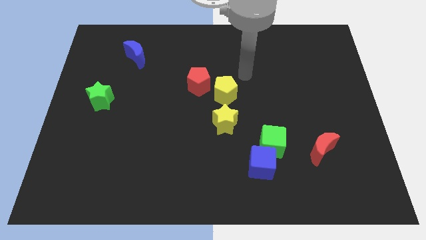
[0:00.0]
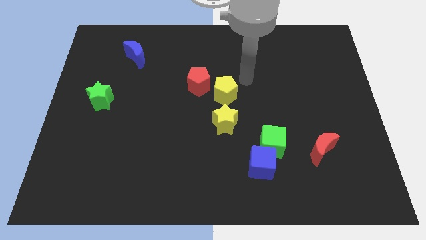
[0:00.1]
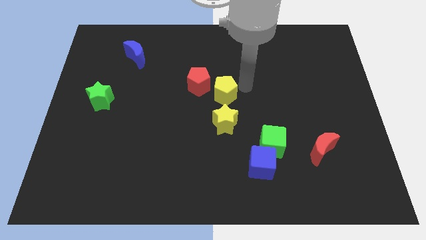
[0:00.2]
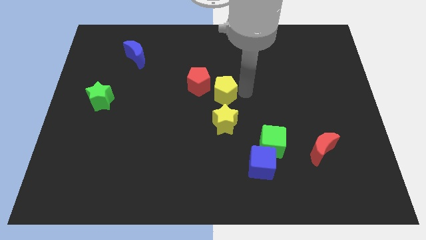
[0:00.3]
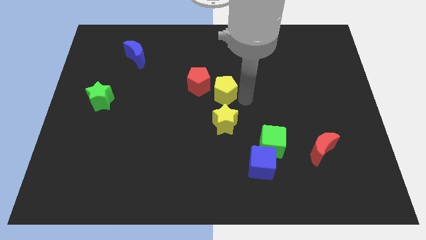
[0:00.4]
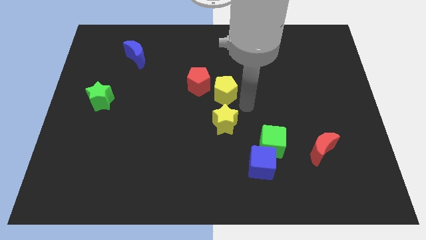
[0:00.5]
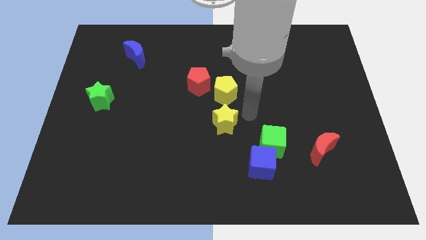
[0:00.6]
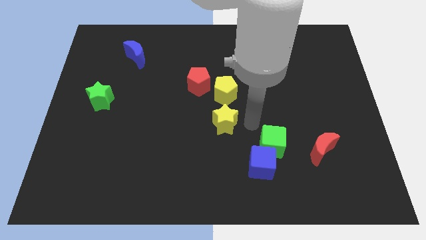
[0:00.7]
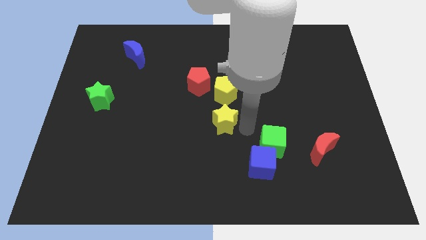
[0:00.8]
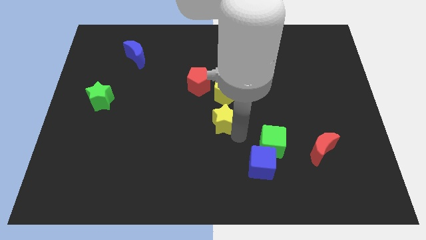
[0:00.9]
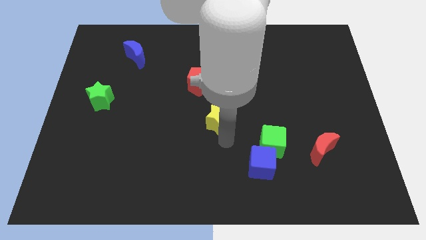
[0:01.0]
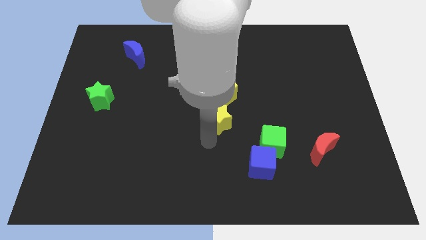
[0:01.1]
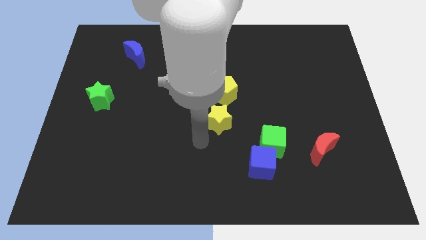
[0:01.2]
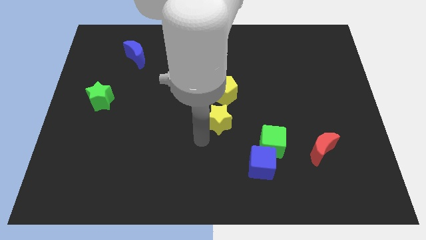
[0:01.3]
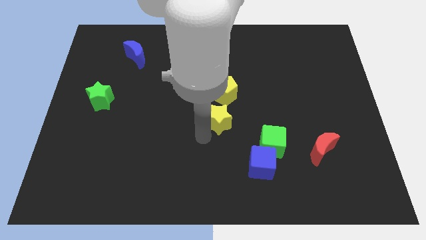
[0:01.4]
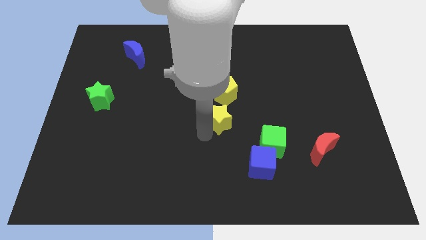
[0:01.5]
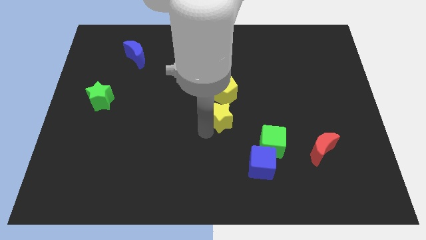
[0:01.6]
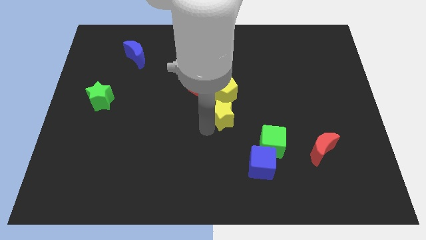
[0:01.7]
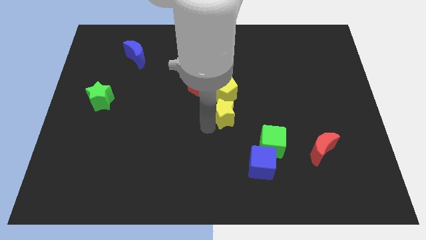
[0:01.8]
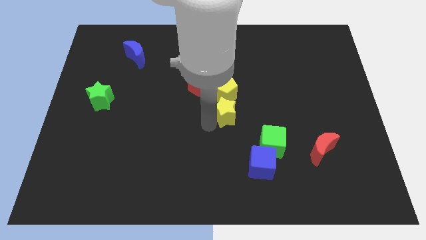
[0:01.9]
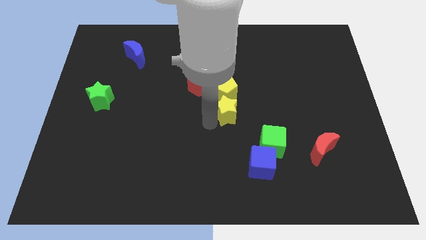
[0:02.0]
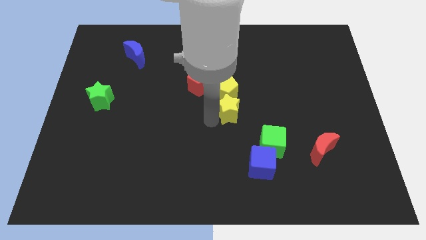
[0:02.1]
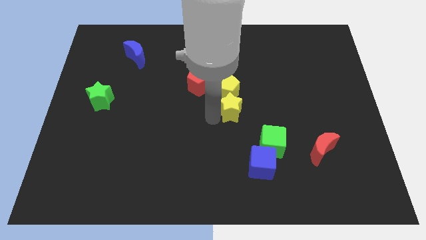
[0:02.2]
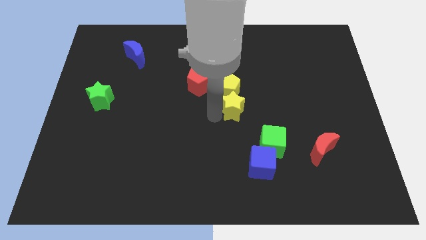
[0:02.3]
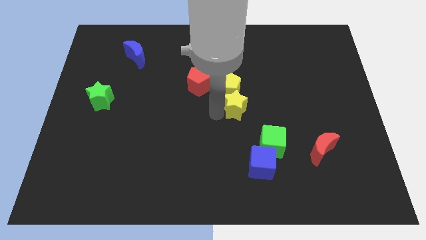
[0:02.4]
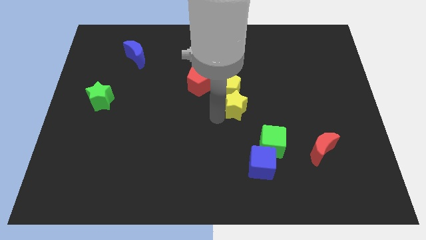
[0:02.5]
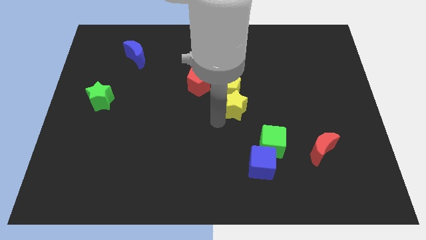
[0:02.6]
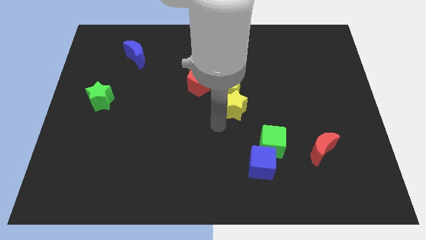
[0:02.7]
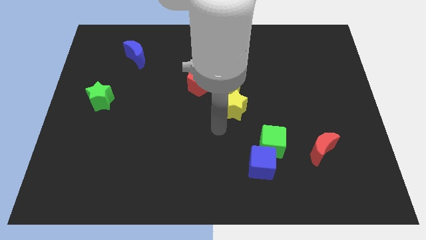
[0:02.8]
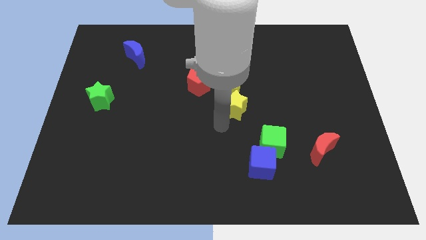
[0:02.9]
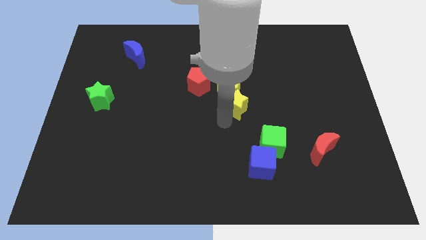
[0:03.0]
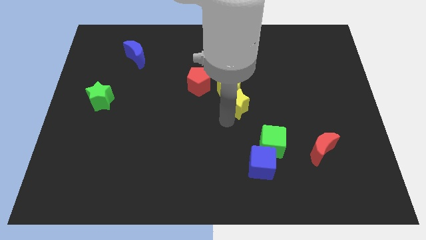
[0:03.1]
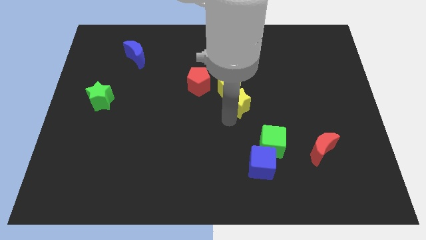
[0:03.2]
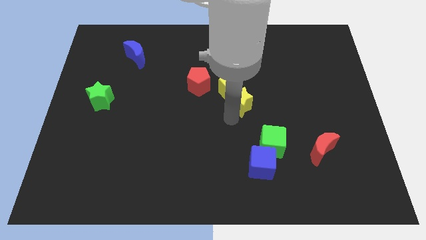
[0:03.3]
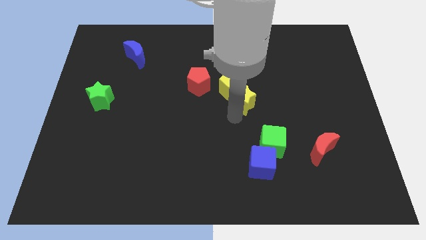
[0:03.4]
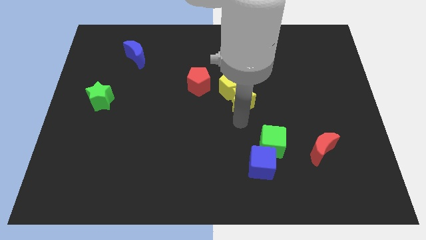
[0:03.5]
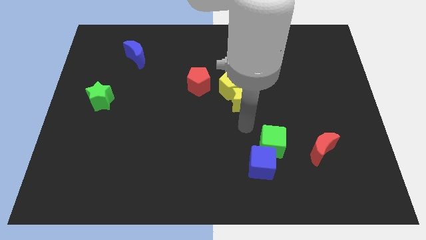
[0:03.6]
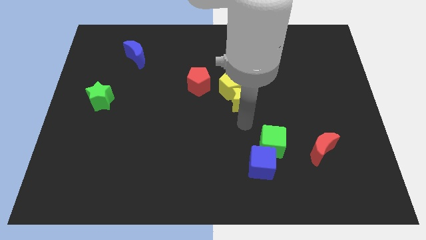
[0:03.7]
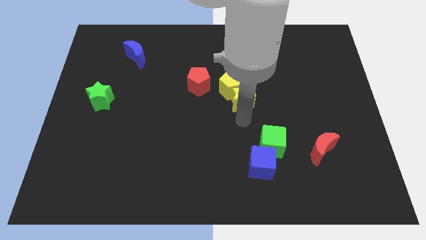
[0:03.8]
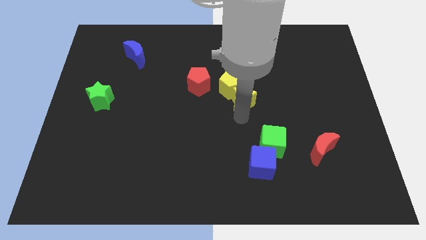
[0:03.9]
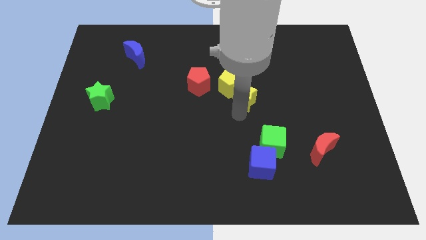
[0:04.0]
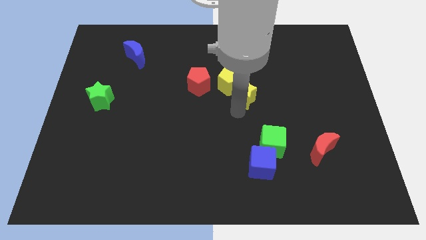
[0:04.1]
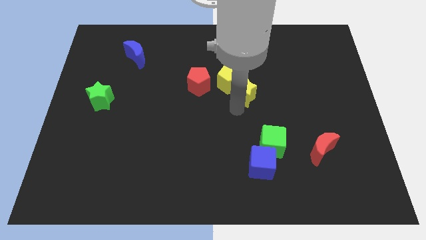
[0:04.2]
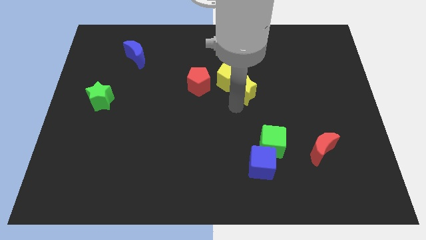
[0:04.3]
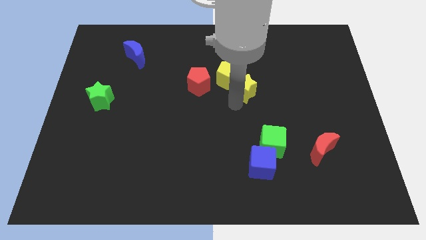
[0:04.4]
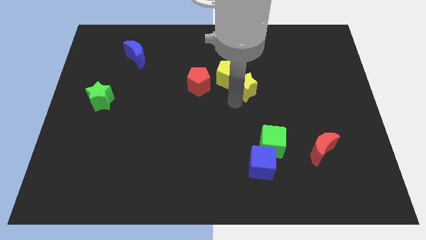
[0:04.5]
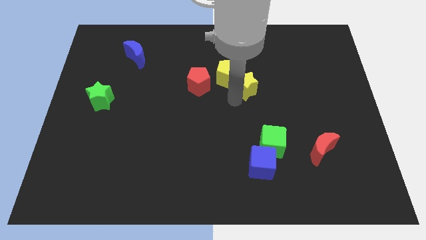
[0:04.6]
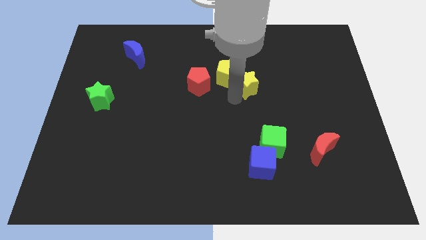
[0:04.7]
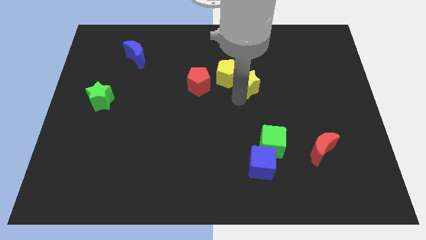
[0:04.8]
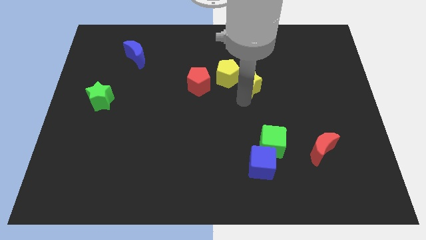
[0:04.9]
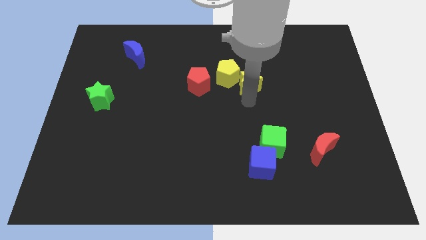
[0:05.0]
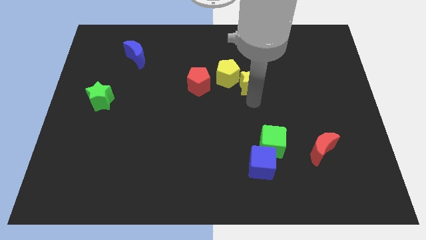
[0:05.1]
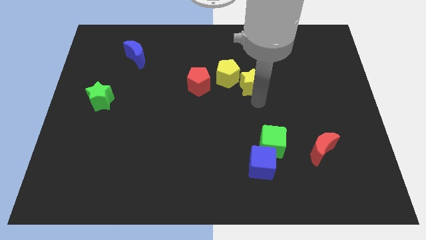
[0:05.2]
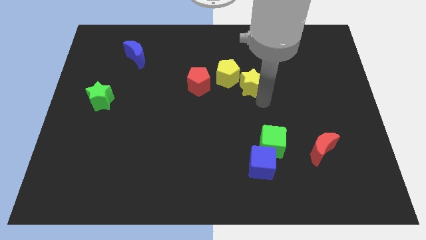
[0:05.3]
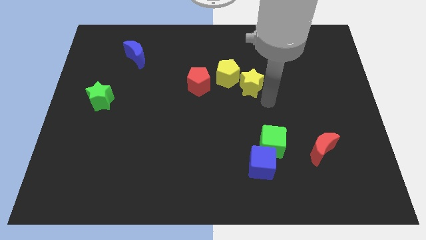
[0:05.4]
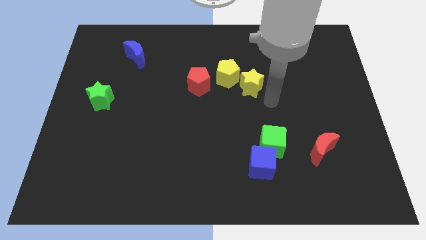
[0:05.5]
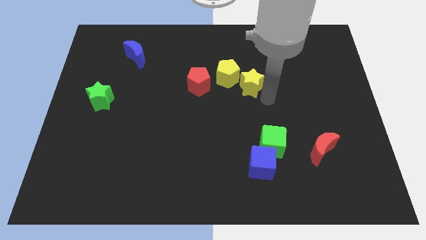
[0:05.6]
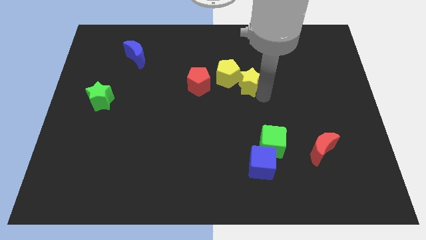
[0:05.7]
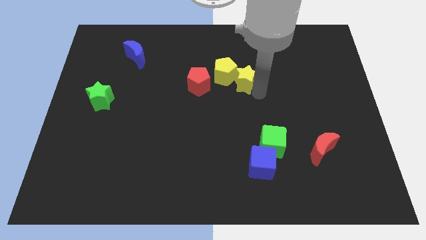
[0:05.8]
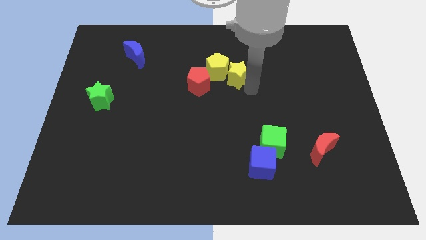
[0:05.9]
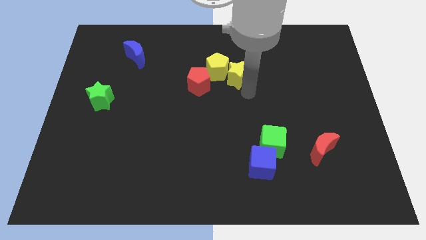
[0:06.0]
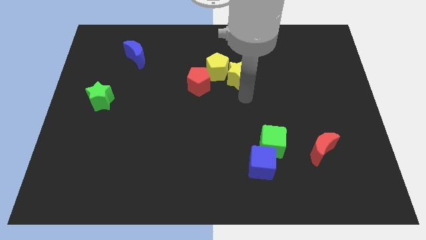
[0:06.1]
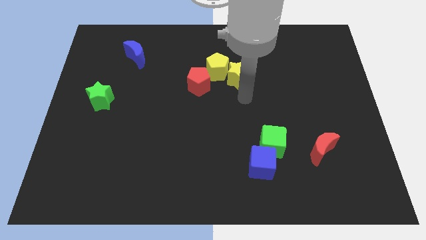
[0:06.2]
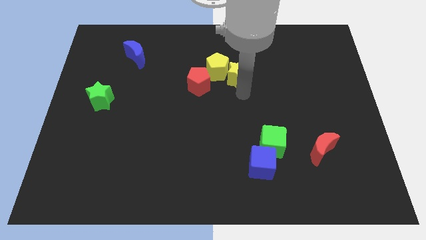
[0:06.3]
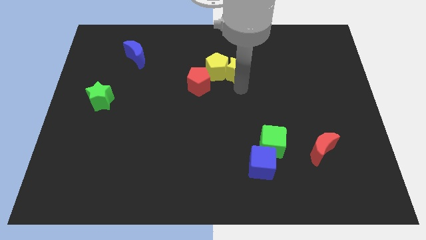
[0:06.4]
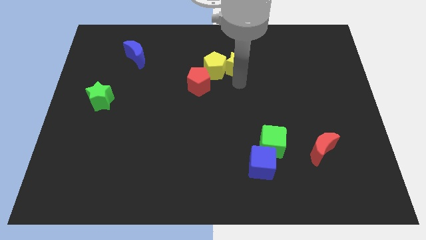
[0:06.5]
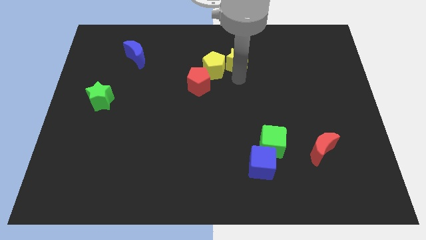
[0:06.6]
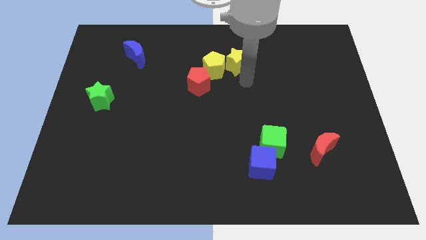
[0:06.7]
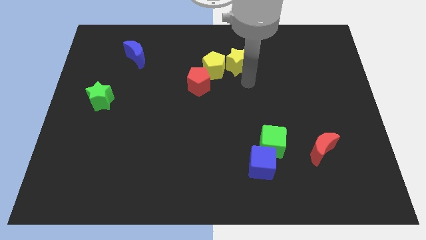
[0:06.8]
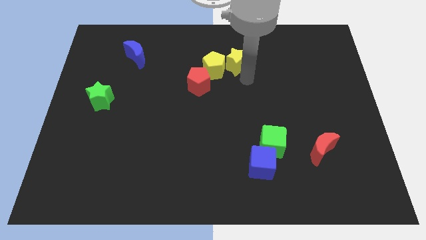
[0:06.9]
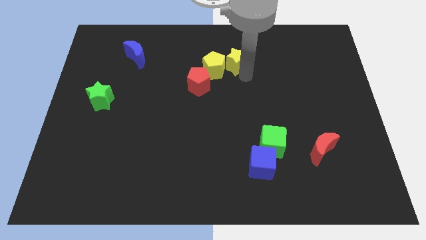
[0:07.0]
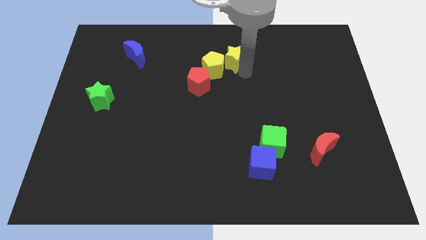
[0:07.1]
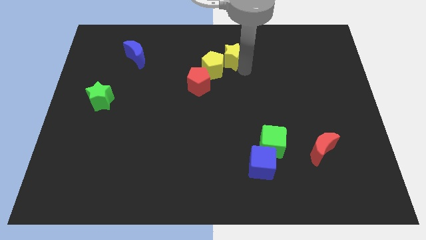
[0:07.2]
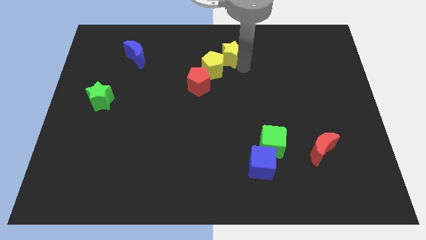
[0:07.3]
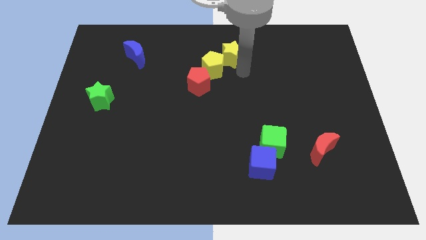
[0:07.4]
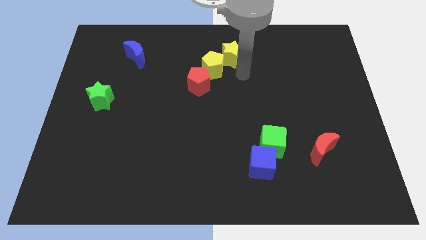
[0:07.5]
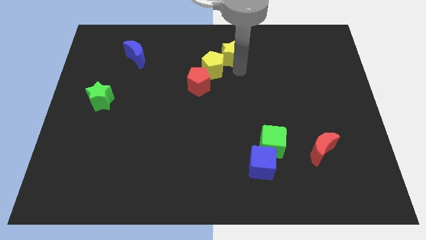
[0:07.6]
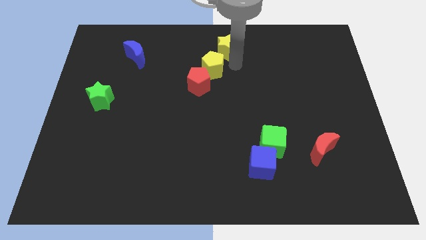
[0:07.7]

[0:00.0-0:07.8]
slide the yellow star to the towards your base
